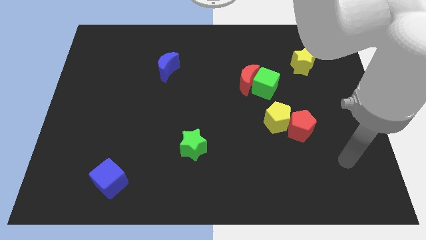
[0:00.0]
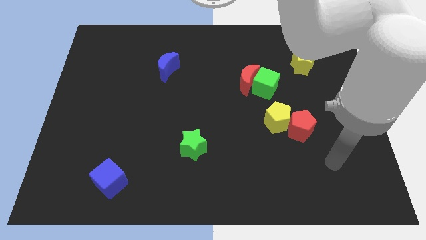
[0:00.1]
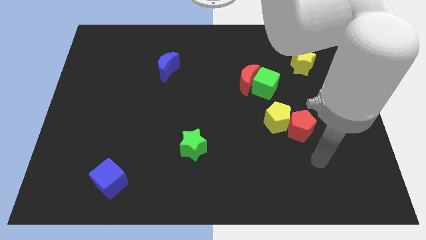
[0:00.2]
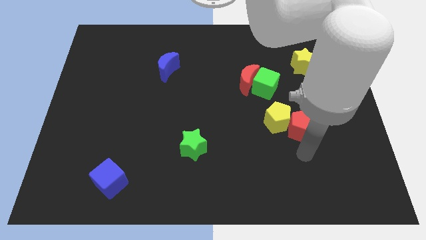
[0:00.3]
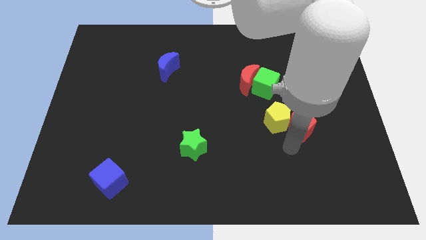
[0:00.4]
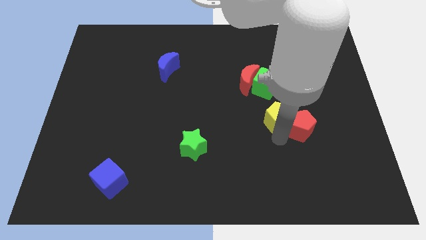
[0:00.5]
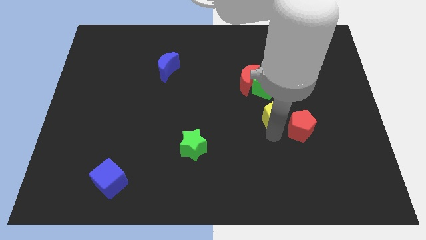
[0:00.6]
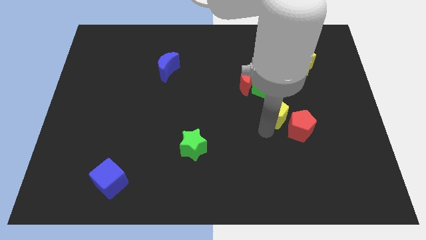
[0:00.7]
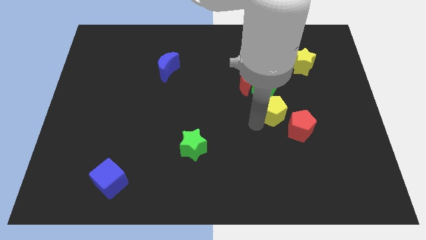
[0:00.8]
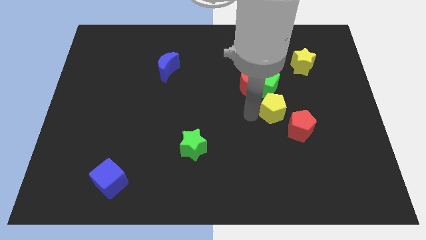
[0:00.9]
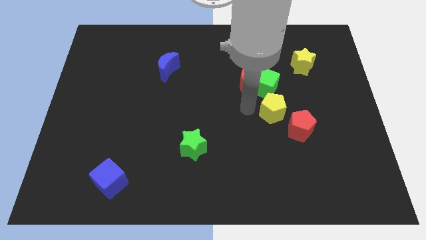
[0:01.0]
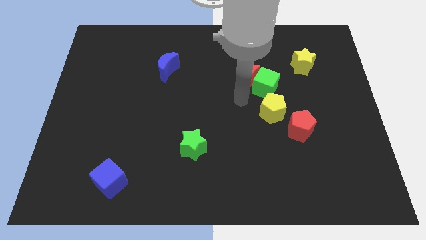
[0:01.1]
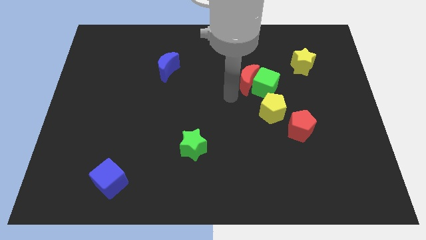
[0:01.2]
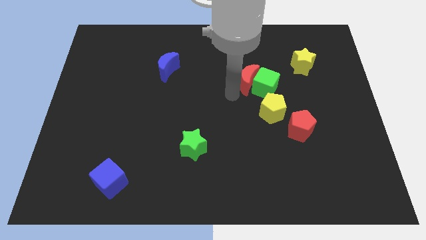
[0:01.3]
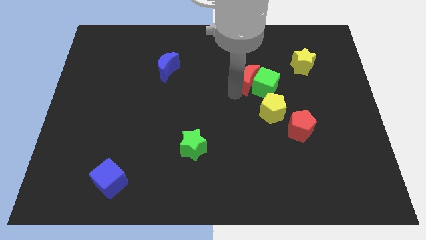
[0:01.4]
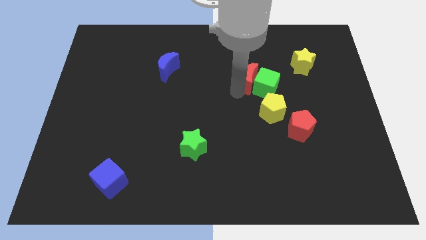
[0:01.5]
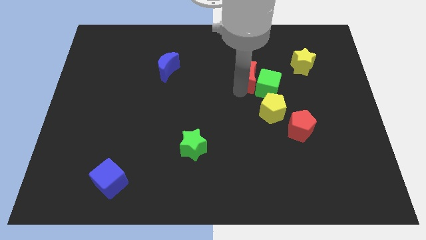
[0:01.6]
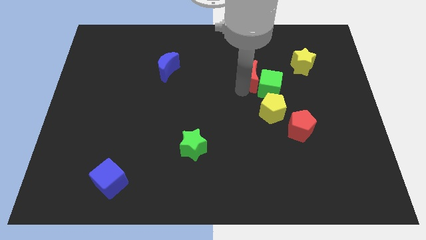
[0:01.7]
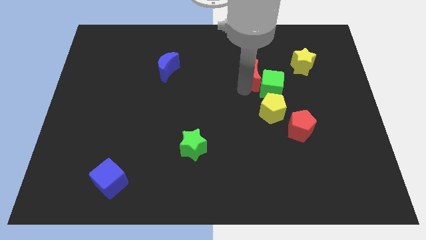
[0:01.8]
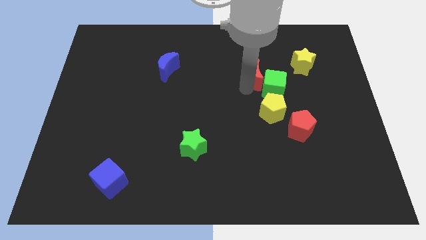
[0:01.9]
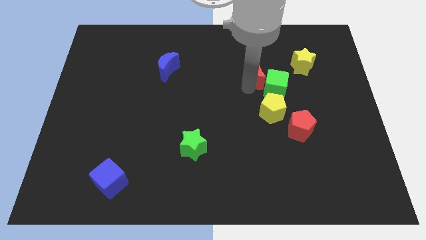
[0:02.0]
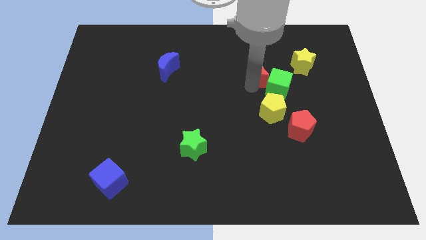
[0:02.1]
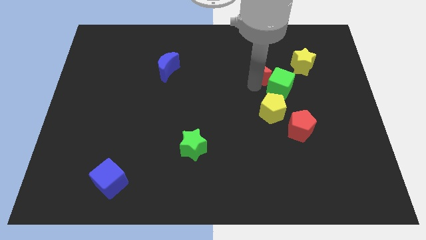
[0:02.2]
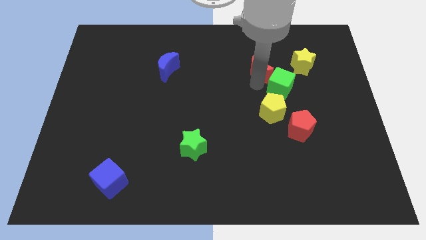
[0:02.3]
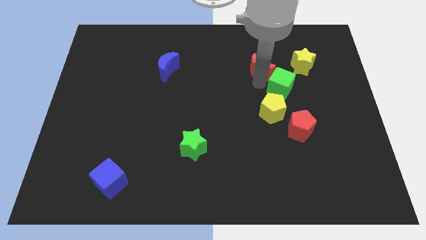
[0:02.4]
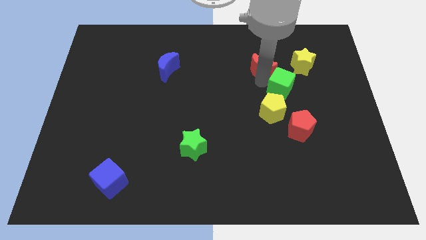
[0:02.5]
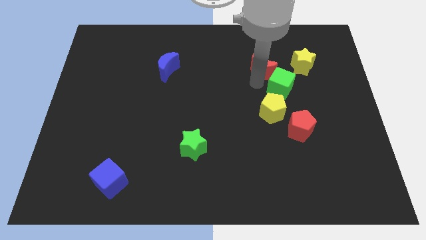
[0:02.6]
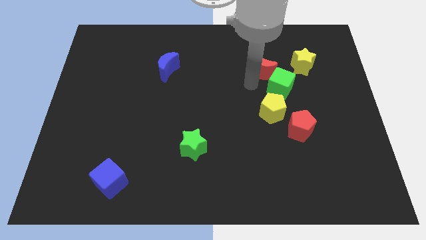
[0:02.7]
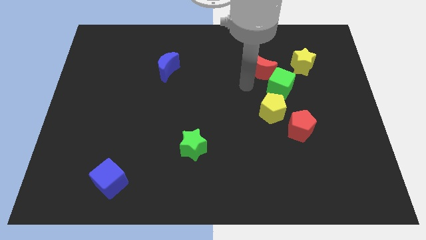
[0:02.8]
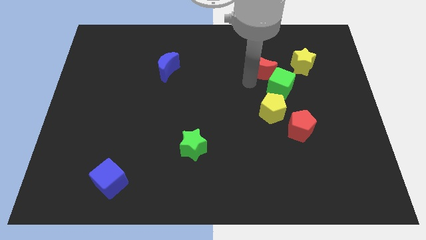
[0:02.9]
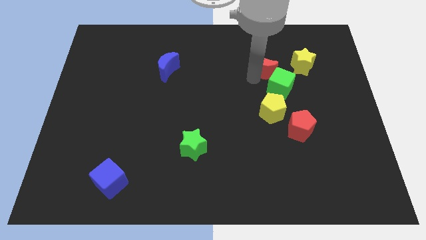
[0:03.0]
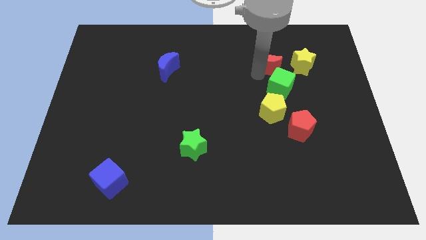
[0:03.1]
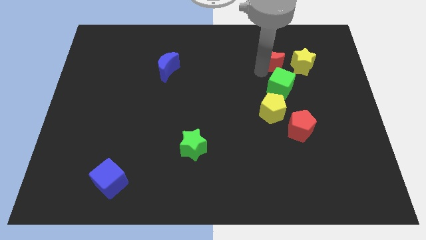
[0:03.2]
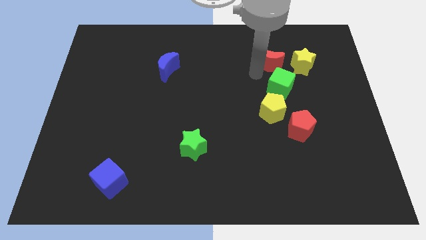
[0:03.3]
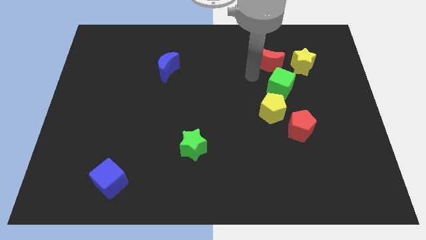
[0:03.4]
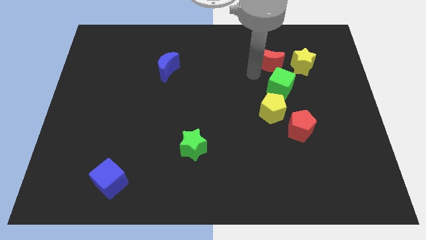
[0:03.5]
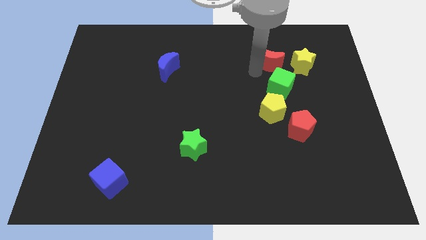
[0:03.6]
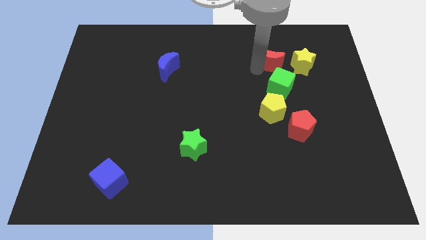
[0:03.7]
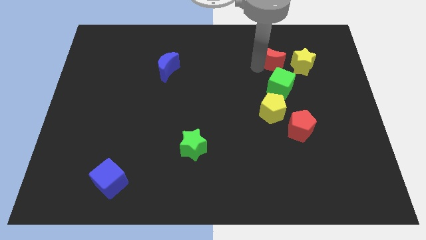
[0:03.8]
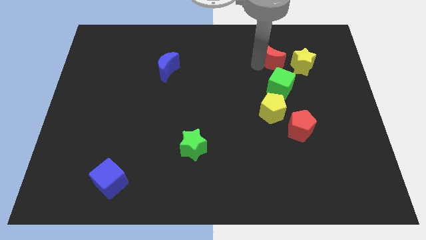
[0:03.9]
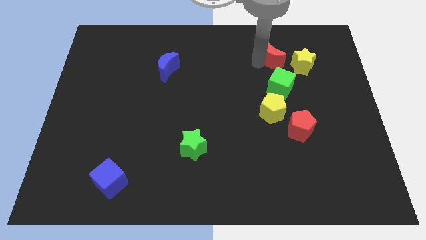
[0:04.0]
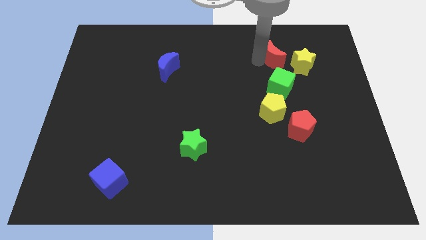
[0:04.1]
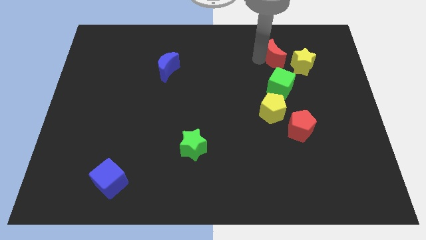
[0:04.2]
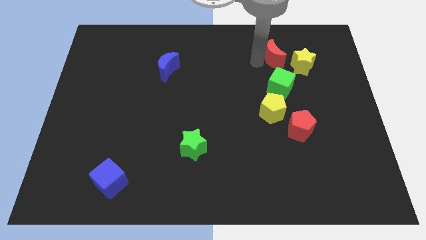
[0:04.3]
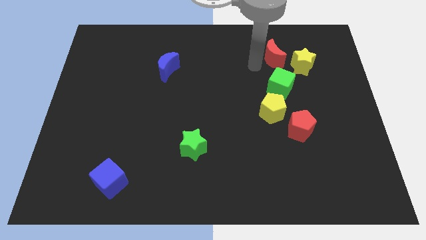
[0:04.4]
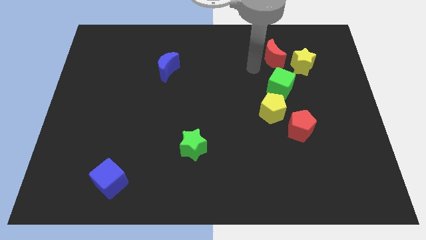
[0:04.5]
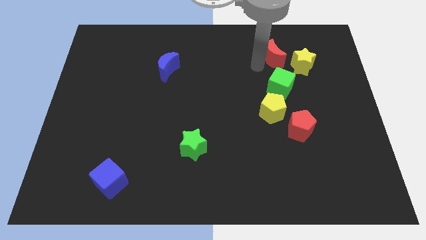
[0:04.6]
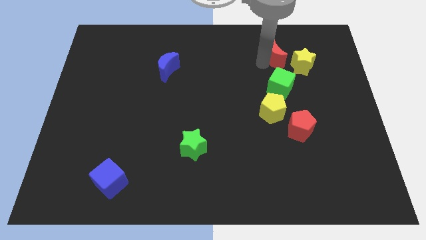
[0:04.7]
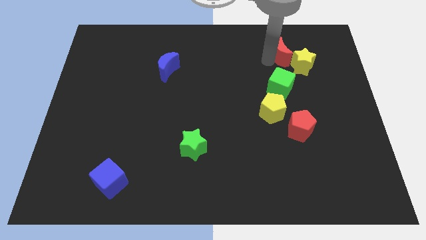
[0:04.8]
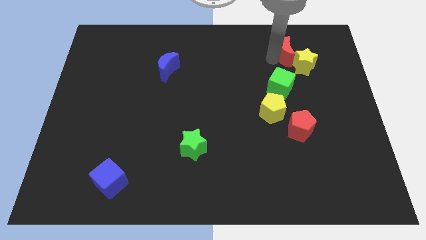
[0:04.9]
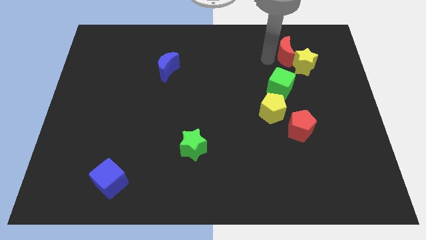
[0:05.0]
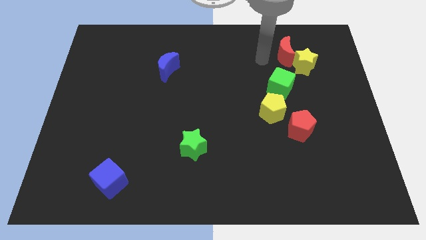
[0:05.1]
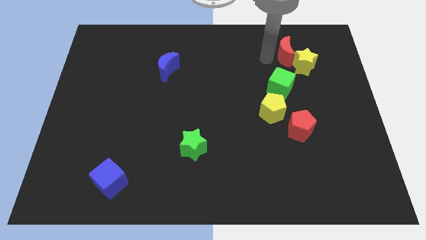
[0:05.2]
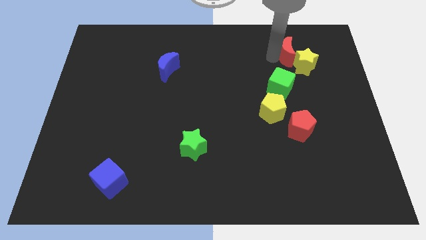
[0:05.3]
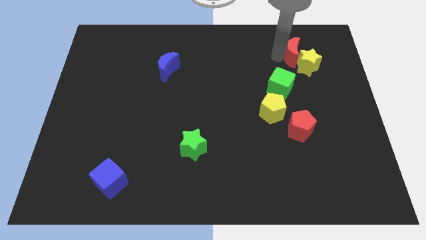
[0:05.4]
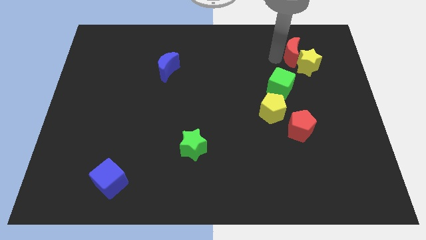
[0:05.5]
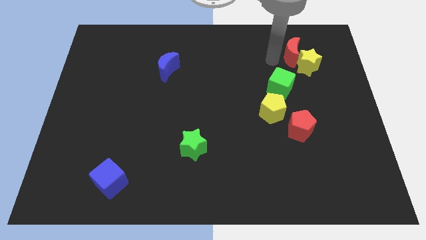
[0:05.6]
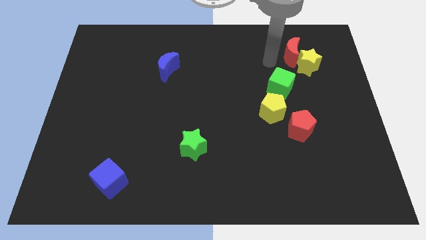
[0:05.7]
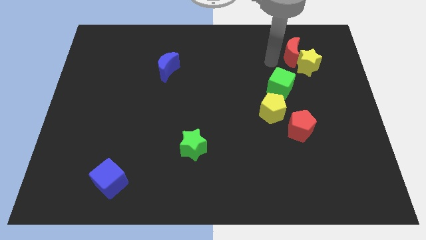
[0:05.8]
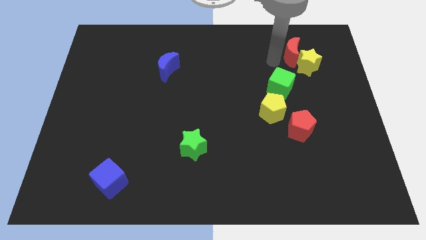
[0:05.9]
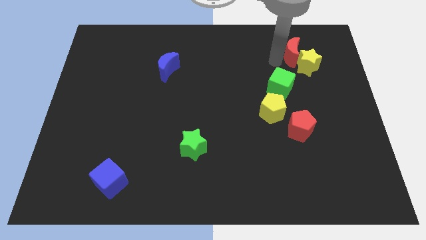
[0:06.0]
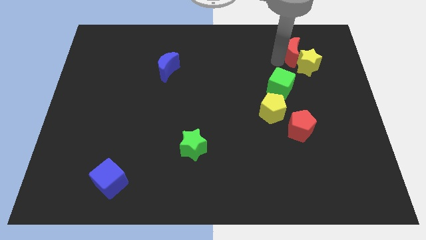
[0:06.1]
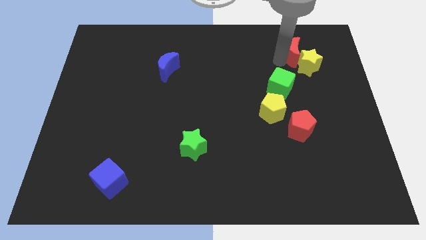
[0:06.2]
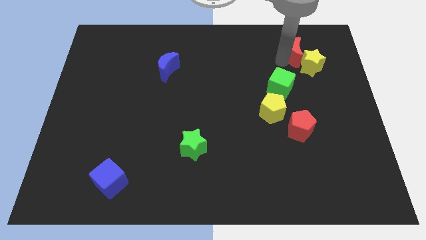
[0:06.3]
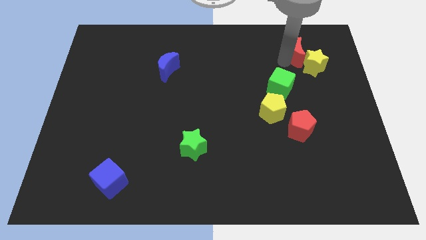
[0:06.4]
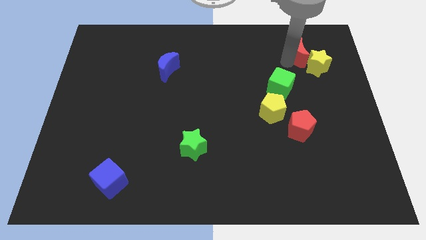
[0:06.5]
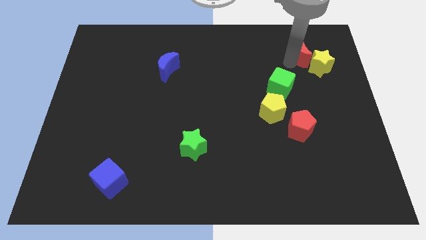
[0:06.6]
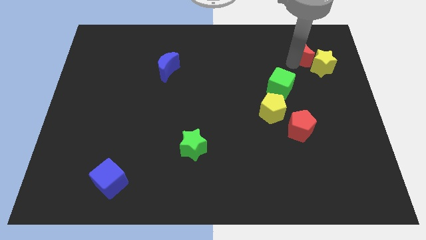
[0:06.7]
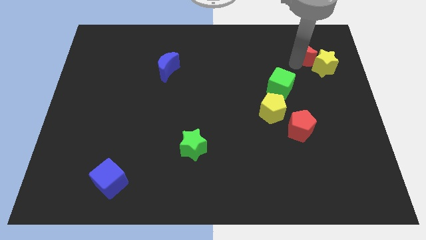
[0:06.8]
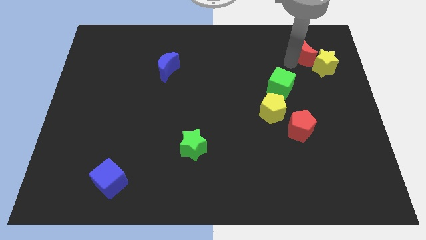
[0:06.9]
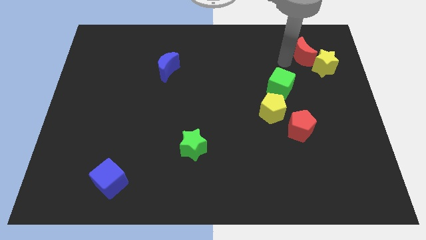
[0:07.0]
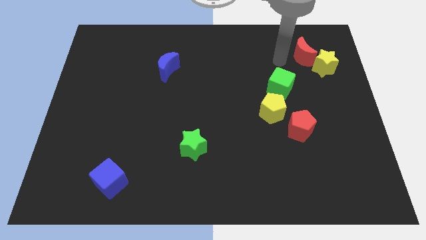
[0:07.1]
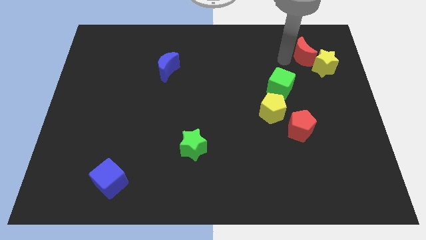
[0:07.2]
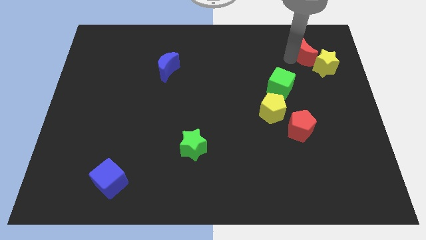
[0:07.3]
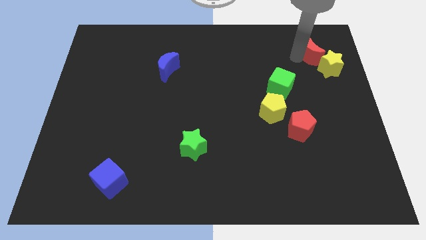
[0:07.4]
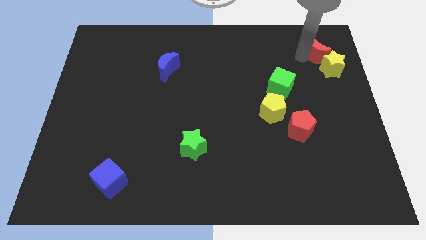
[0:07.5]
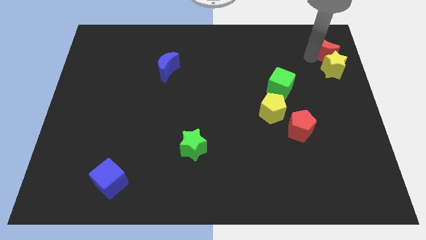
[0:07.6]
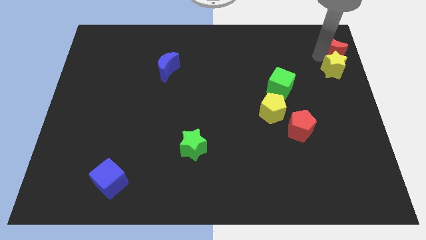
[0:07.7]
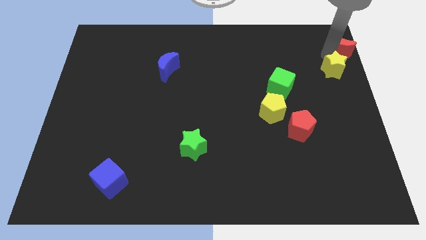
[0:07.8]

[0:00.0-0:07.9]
put the red moon to the upper right corner
